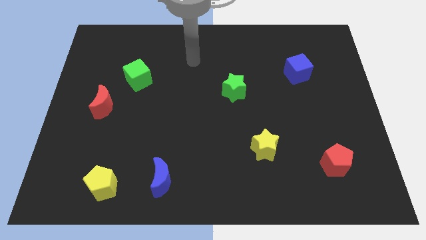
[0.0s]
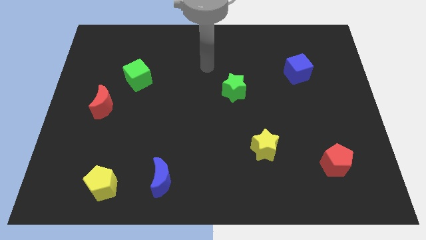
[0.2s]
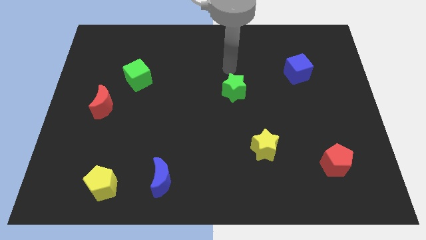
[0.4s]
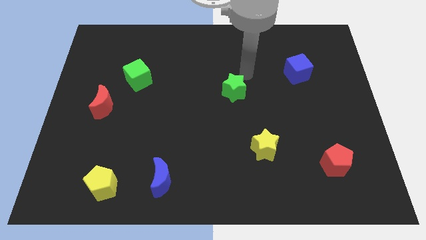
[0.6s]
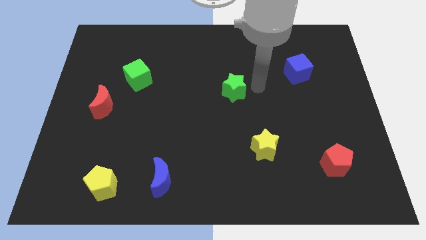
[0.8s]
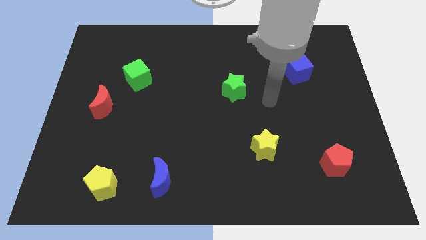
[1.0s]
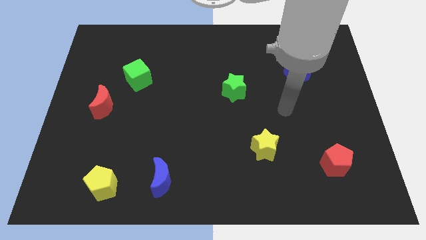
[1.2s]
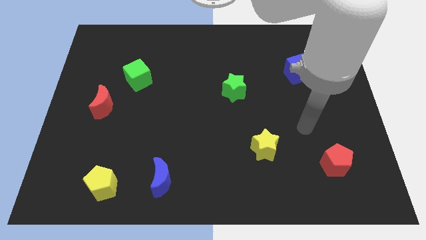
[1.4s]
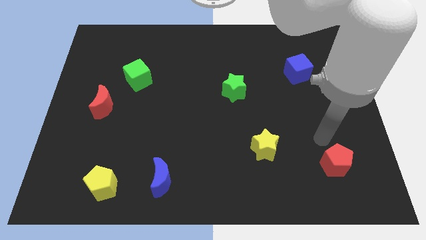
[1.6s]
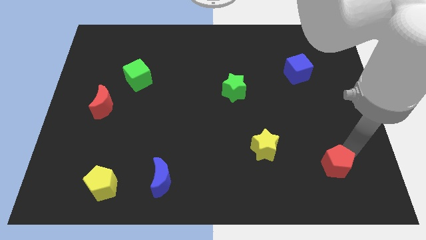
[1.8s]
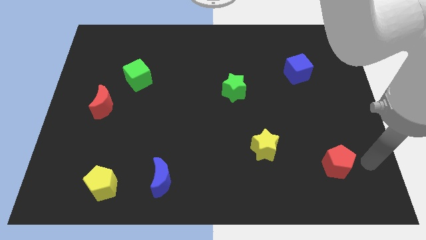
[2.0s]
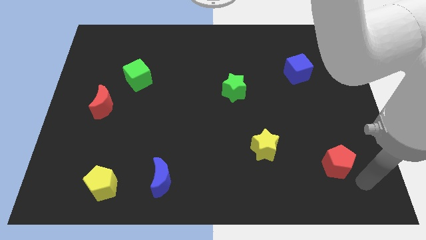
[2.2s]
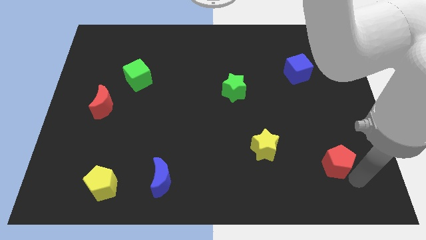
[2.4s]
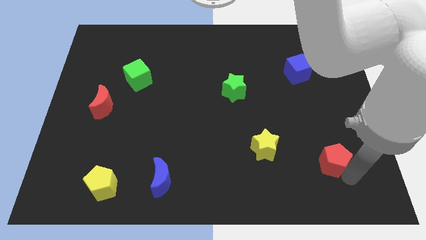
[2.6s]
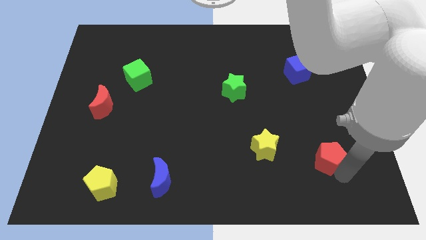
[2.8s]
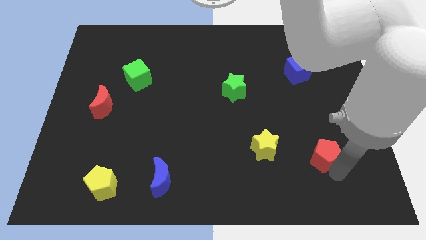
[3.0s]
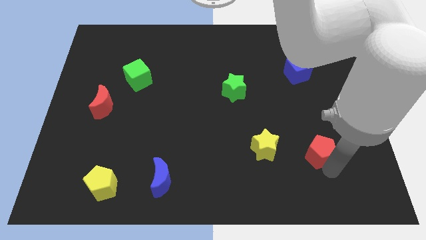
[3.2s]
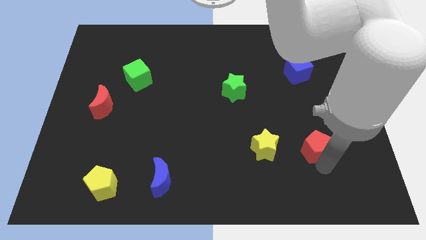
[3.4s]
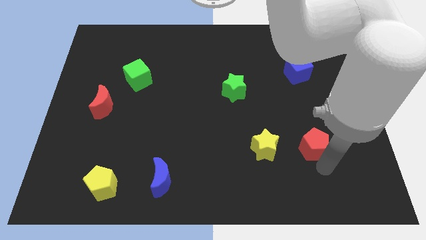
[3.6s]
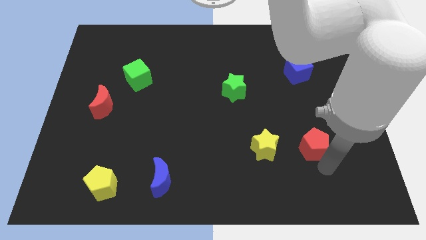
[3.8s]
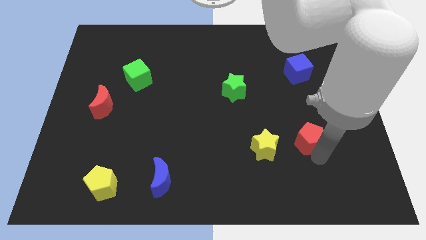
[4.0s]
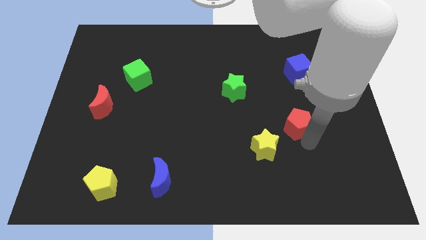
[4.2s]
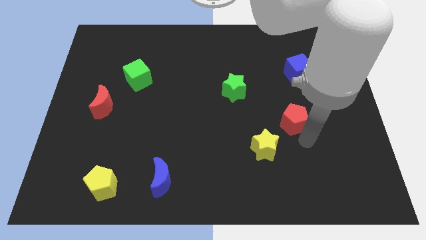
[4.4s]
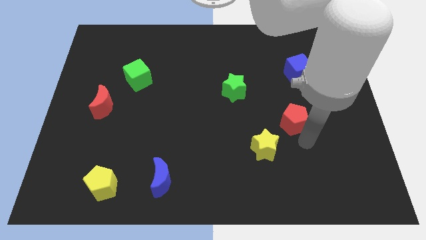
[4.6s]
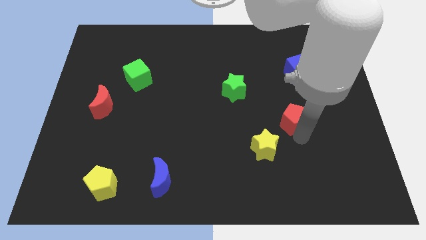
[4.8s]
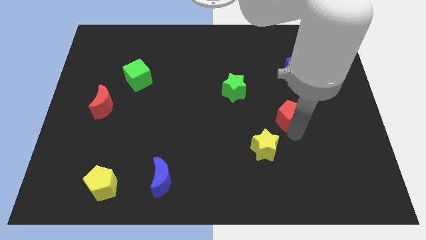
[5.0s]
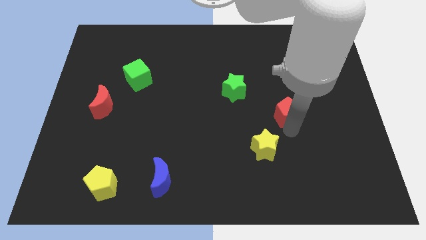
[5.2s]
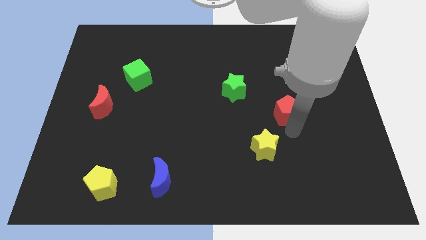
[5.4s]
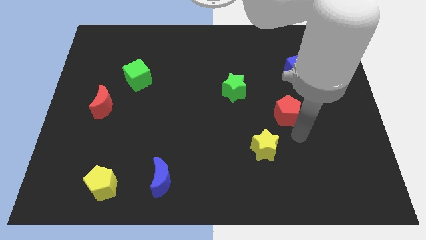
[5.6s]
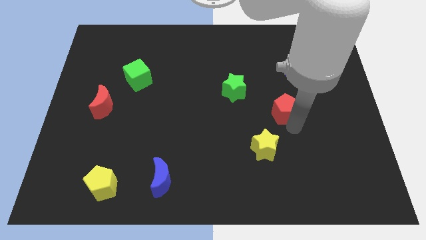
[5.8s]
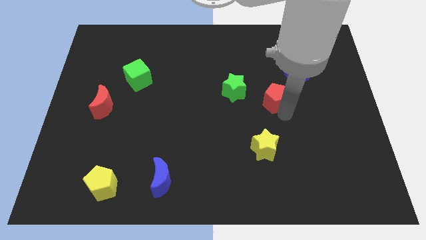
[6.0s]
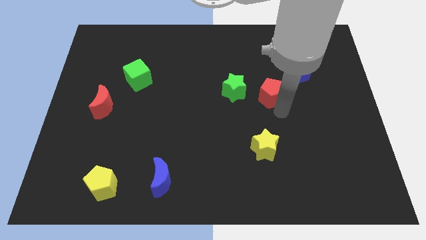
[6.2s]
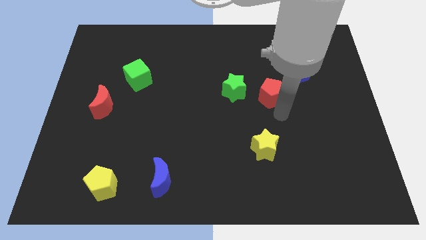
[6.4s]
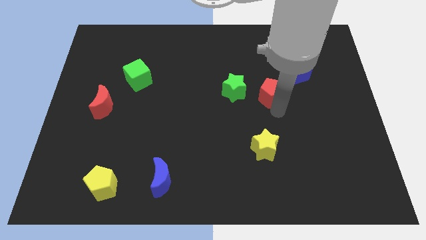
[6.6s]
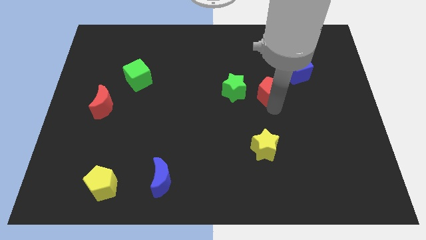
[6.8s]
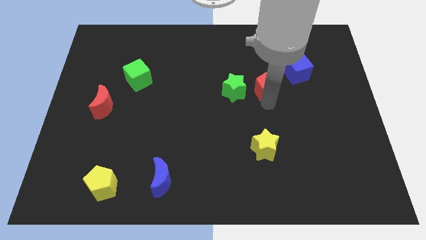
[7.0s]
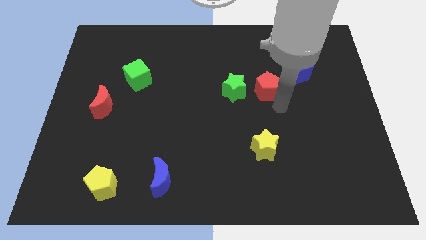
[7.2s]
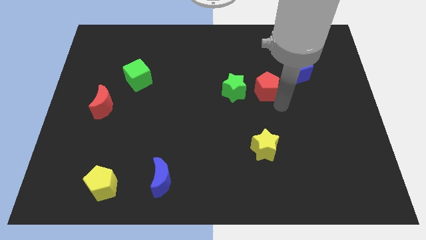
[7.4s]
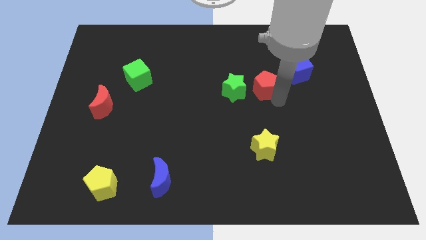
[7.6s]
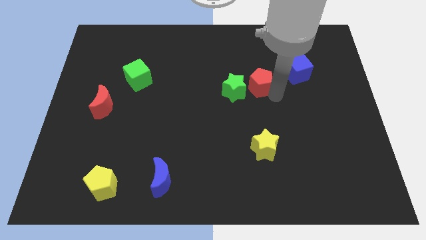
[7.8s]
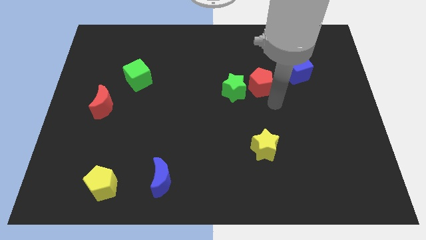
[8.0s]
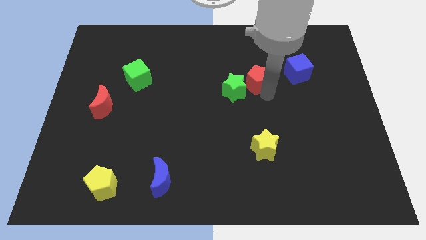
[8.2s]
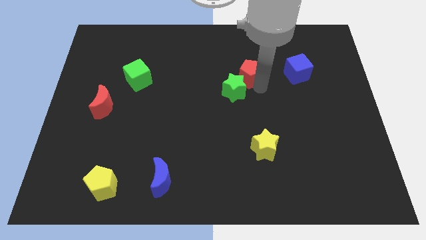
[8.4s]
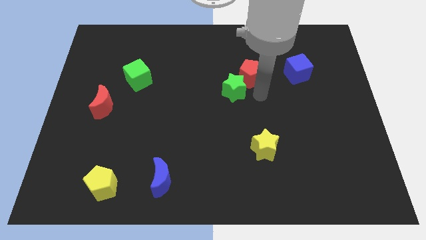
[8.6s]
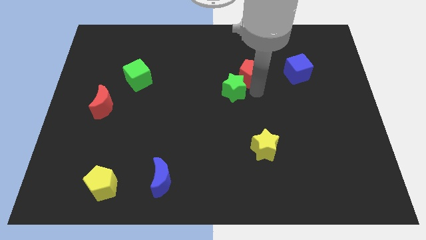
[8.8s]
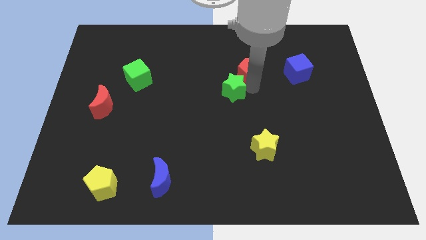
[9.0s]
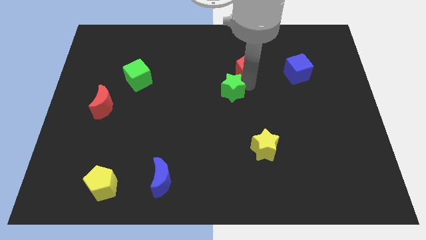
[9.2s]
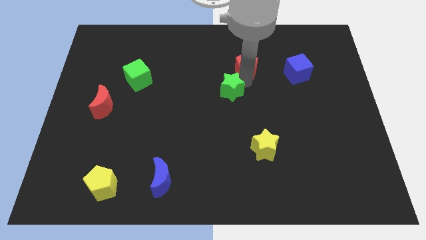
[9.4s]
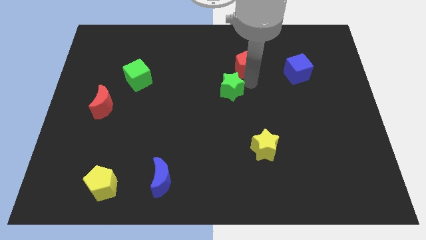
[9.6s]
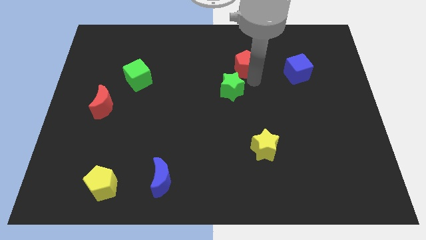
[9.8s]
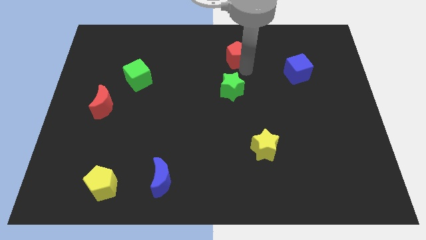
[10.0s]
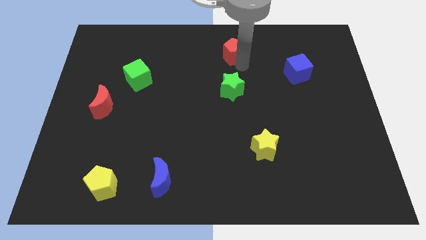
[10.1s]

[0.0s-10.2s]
put the red pentagon to the top side

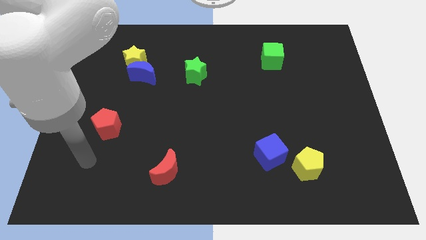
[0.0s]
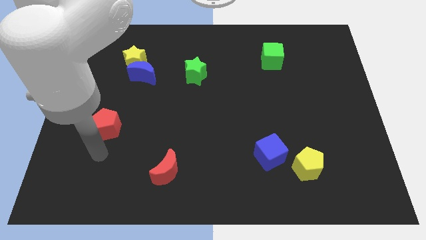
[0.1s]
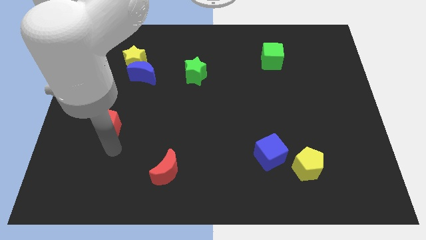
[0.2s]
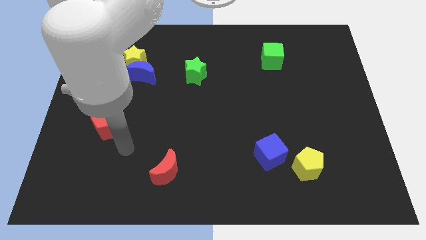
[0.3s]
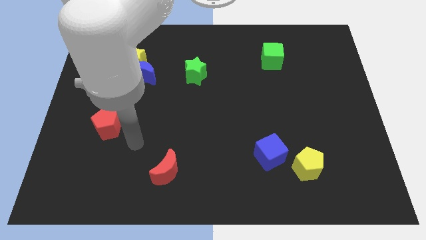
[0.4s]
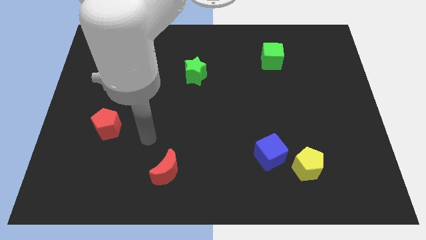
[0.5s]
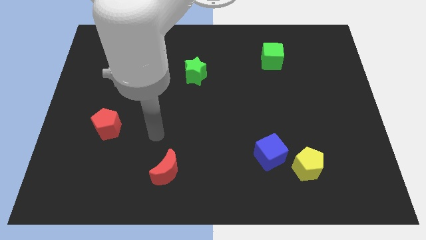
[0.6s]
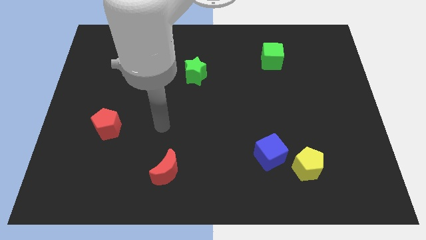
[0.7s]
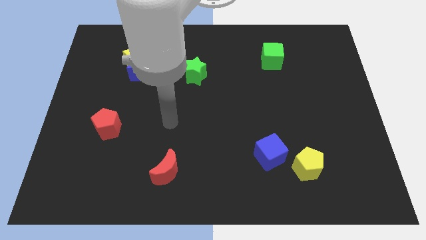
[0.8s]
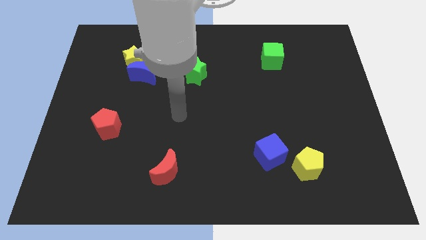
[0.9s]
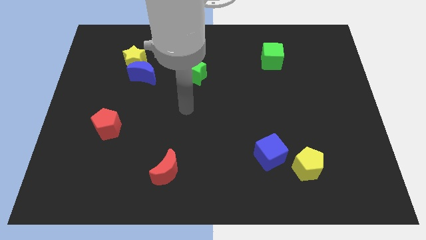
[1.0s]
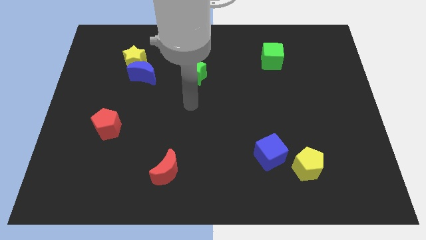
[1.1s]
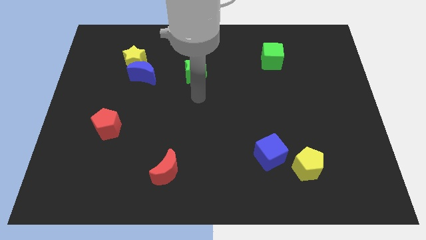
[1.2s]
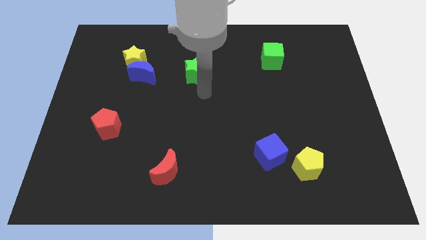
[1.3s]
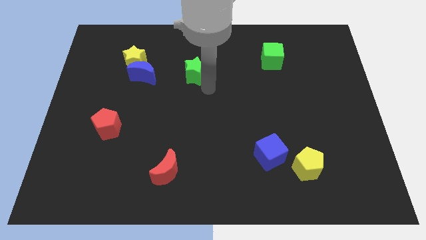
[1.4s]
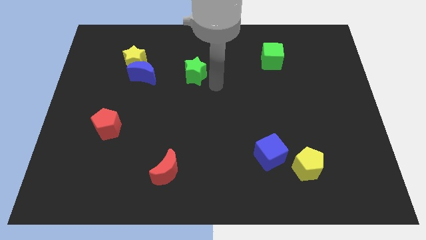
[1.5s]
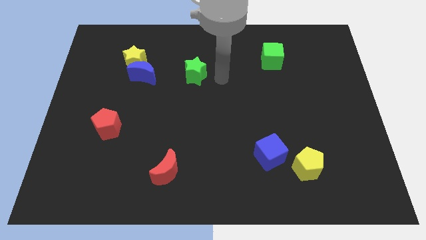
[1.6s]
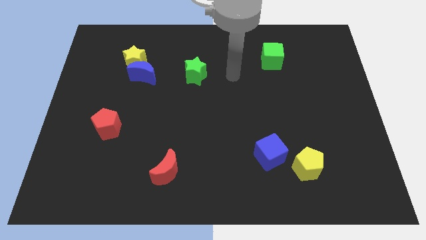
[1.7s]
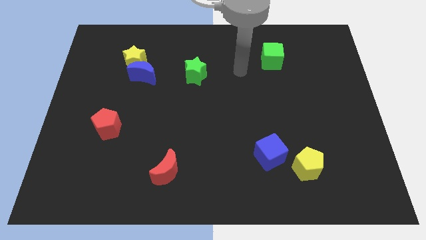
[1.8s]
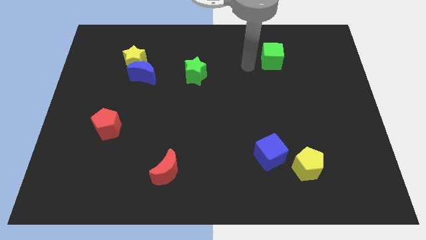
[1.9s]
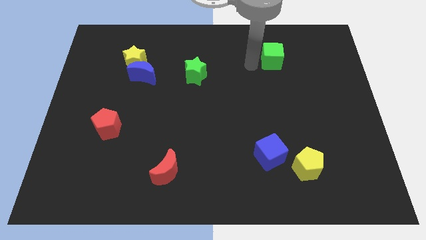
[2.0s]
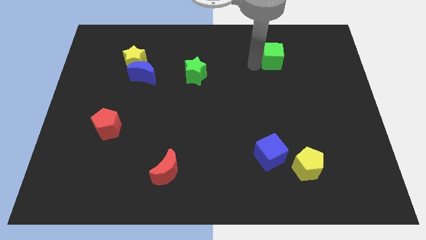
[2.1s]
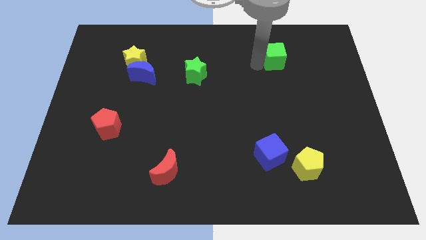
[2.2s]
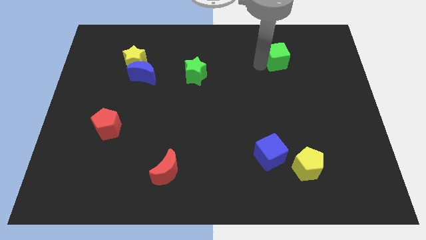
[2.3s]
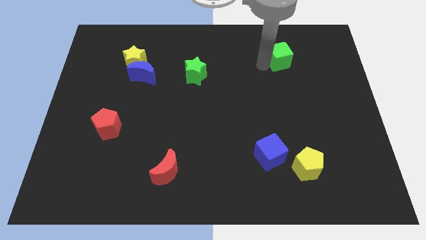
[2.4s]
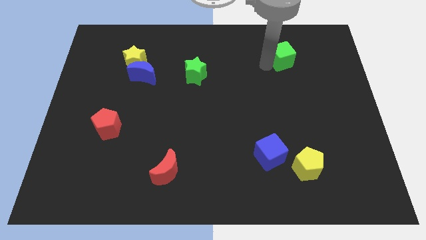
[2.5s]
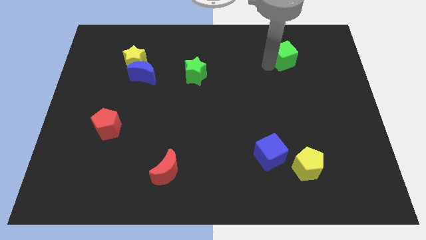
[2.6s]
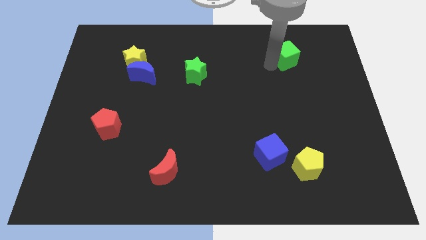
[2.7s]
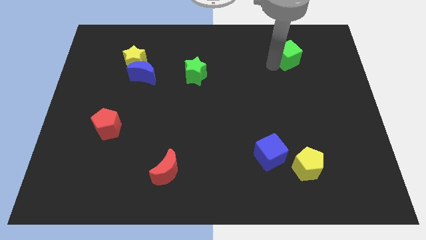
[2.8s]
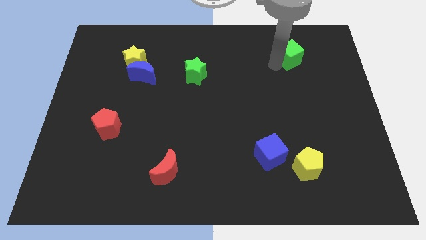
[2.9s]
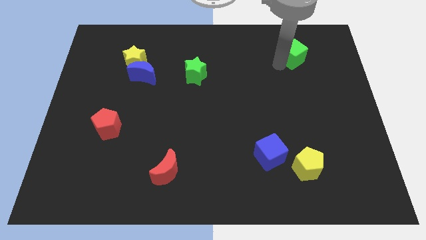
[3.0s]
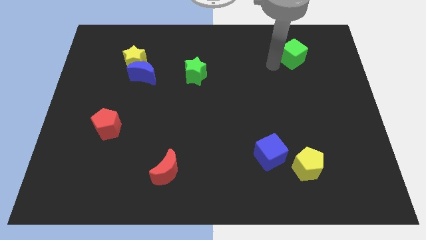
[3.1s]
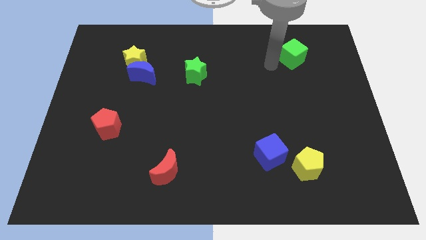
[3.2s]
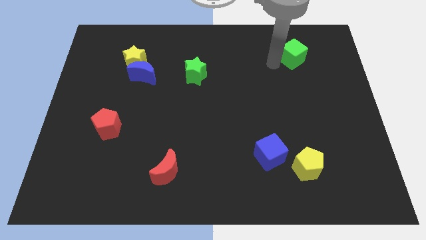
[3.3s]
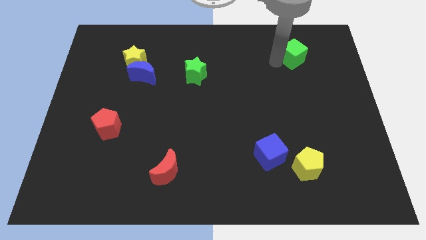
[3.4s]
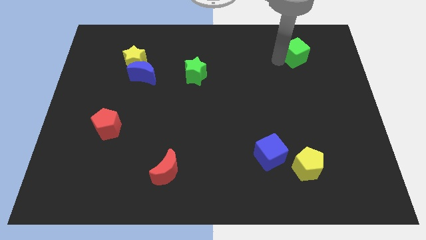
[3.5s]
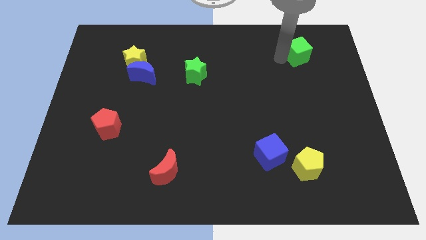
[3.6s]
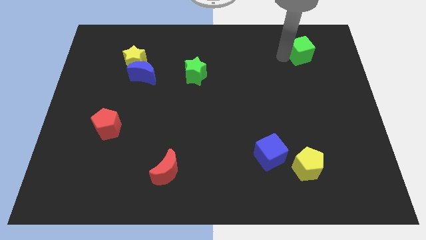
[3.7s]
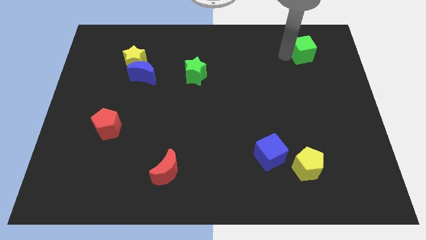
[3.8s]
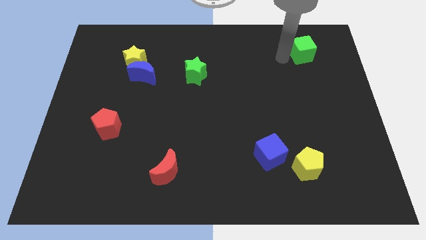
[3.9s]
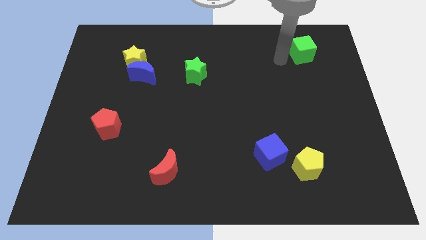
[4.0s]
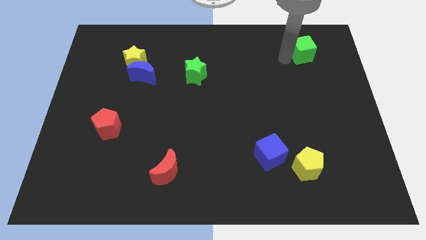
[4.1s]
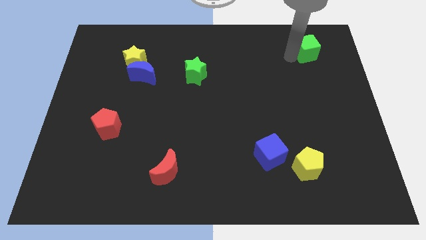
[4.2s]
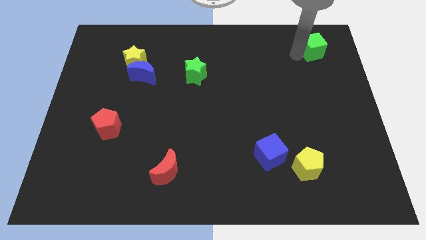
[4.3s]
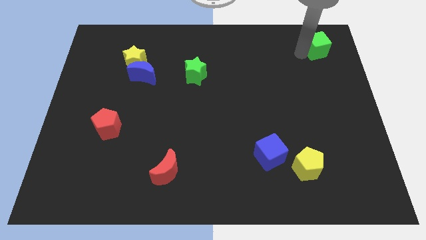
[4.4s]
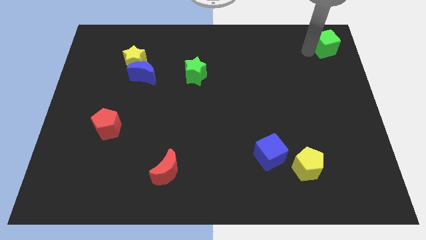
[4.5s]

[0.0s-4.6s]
slide the green cube to the top right of the board
